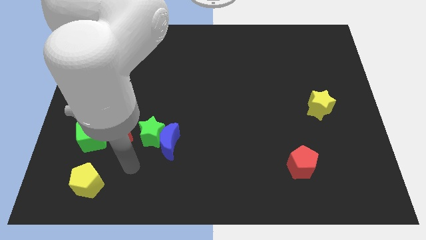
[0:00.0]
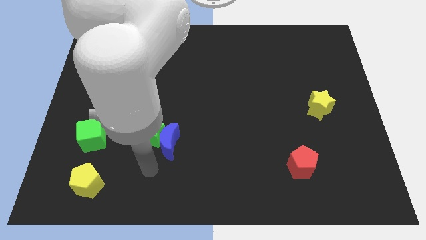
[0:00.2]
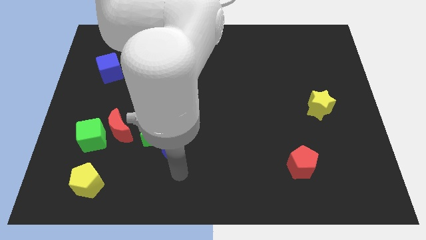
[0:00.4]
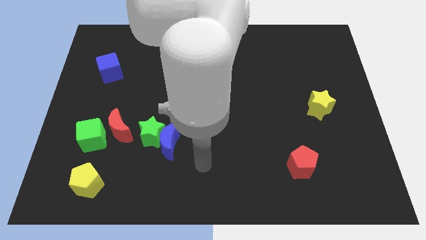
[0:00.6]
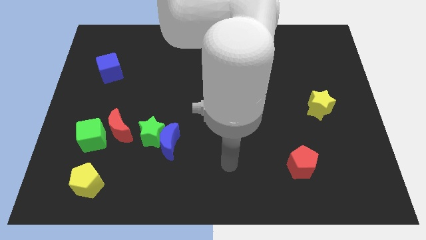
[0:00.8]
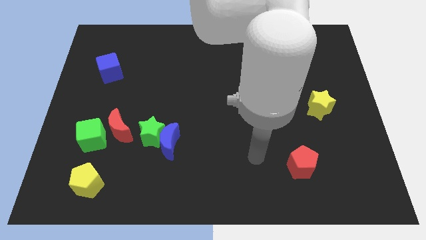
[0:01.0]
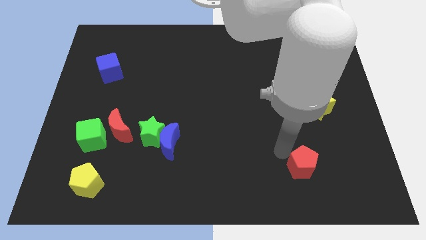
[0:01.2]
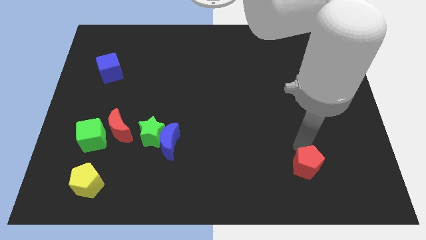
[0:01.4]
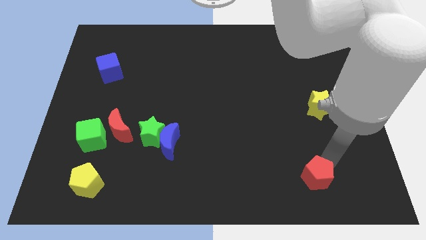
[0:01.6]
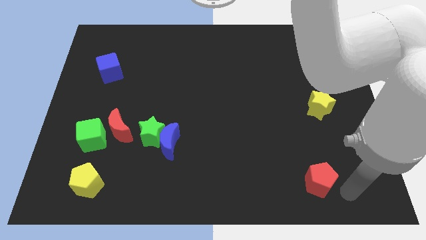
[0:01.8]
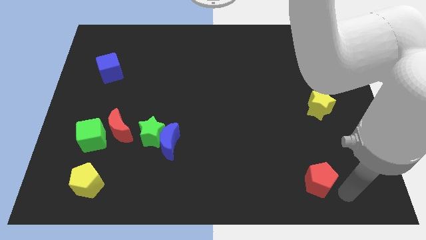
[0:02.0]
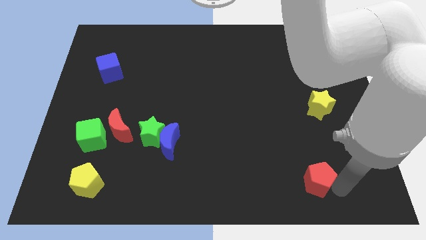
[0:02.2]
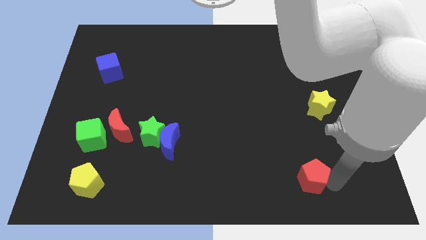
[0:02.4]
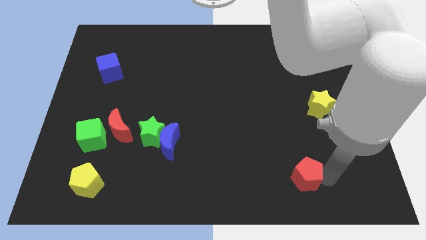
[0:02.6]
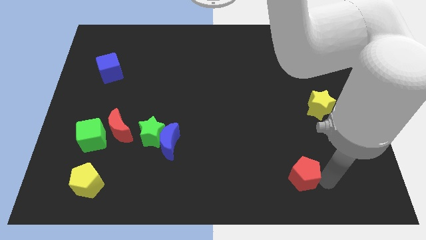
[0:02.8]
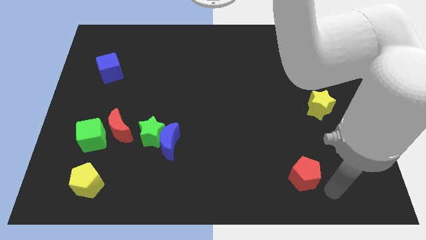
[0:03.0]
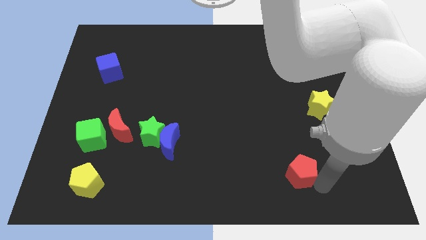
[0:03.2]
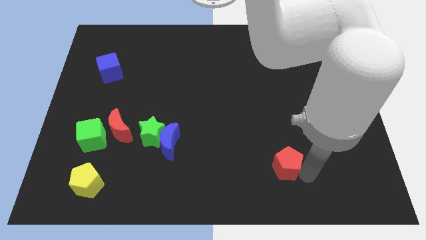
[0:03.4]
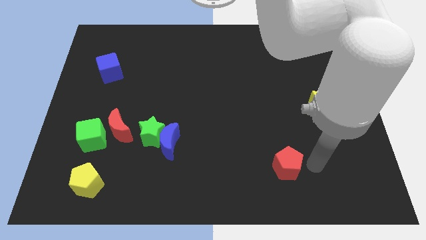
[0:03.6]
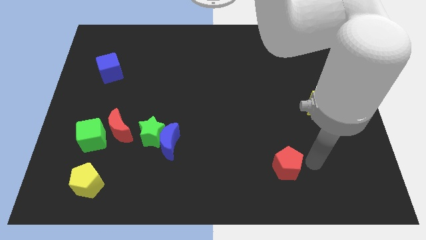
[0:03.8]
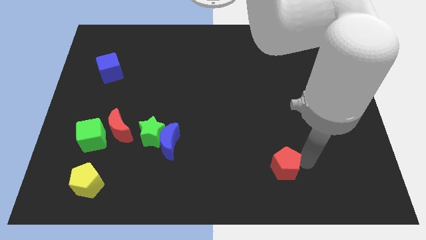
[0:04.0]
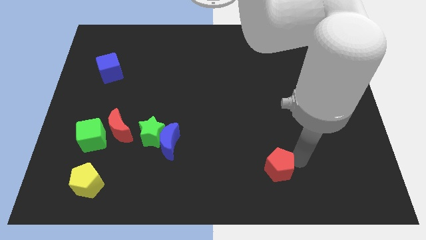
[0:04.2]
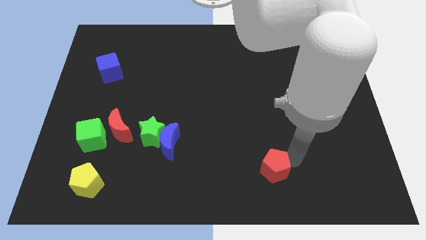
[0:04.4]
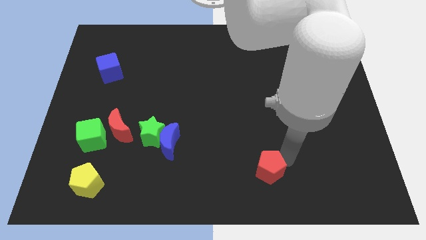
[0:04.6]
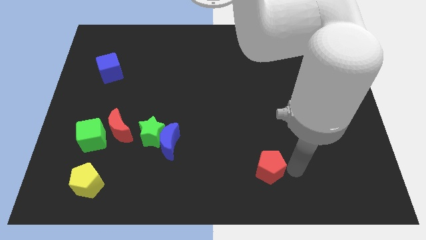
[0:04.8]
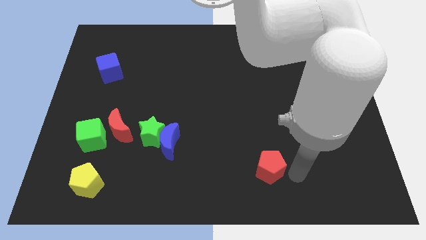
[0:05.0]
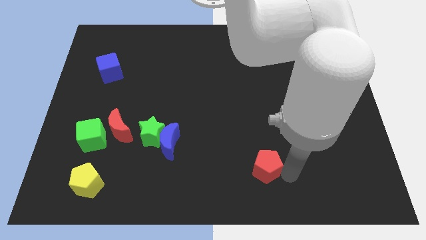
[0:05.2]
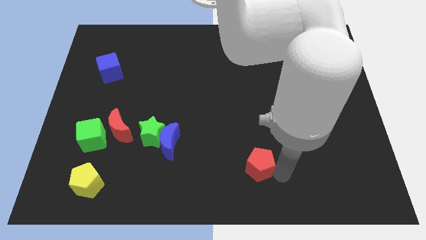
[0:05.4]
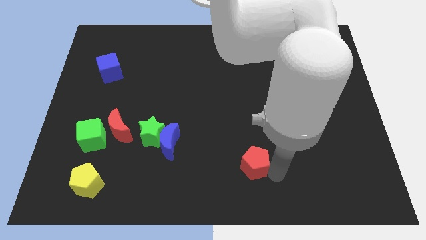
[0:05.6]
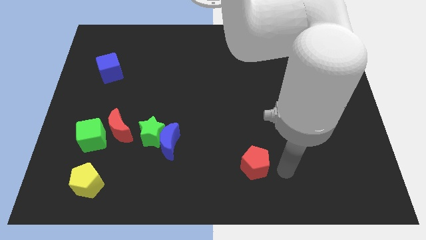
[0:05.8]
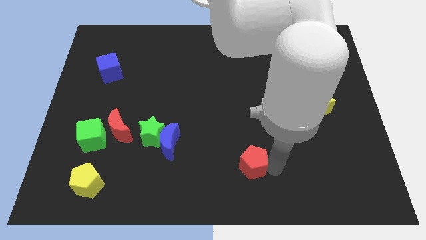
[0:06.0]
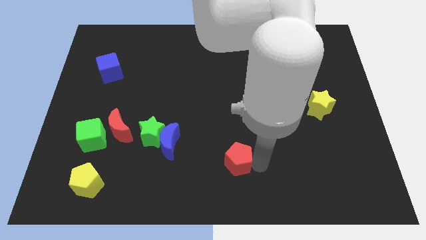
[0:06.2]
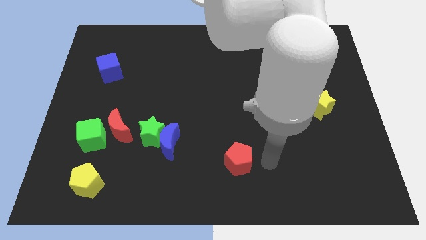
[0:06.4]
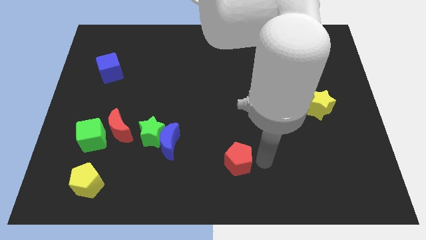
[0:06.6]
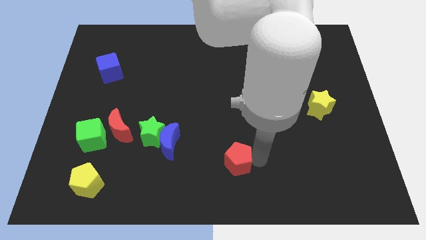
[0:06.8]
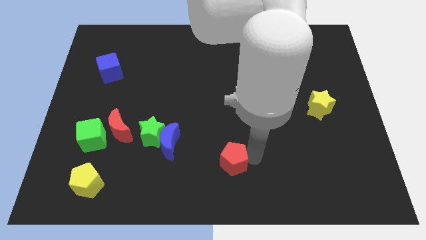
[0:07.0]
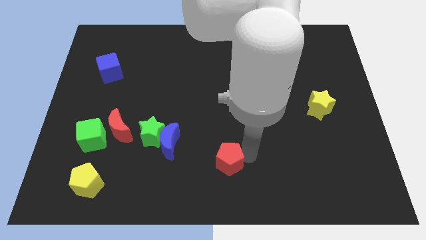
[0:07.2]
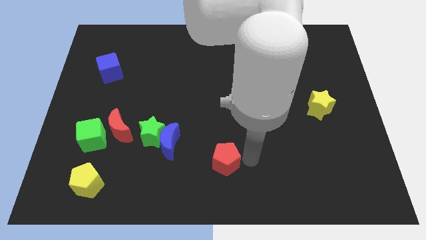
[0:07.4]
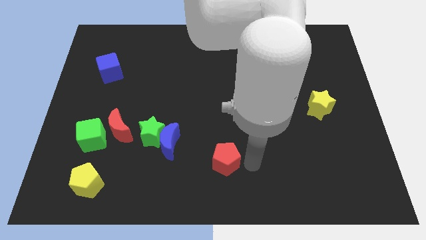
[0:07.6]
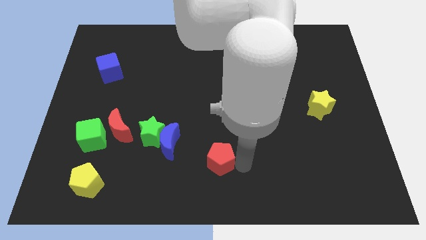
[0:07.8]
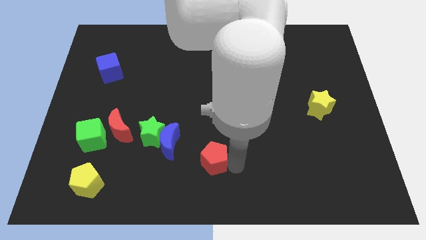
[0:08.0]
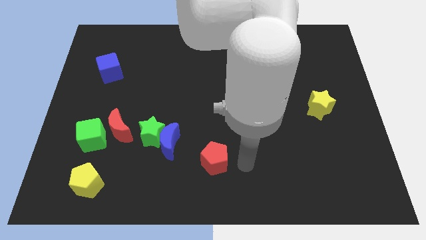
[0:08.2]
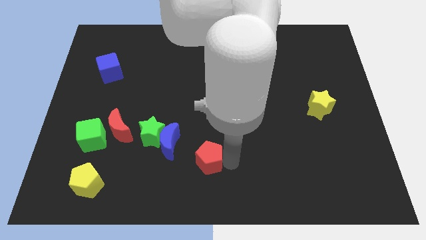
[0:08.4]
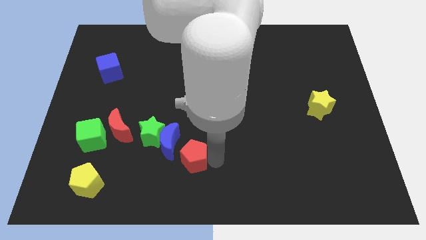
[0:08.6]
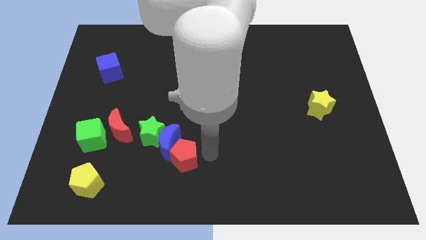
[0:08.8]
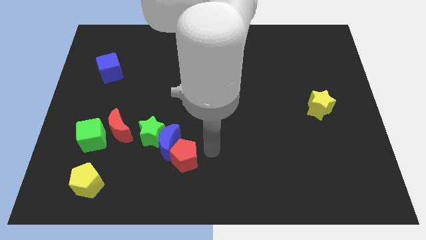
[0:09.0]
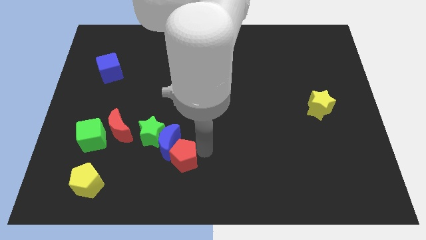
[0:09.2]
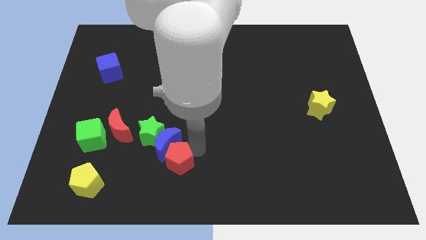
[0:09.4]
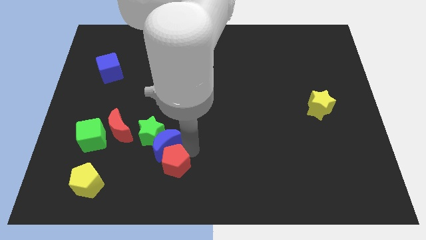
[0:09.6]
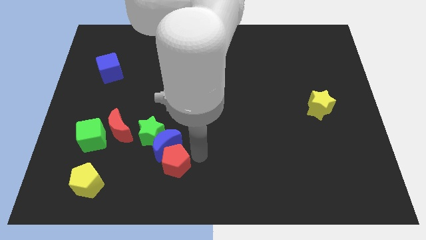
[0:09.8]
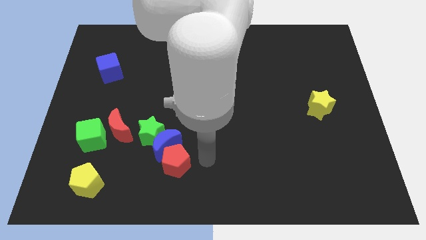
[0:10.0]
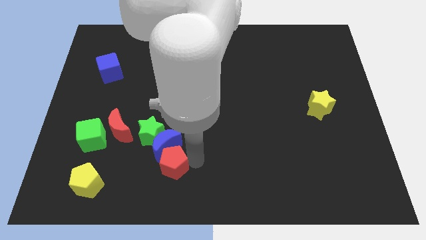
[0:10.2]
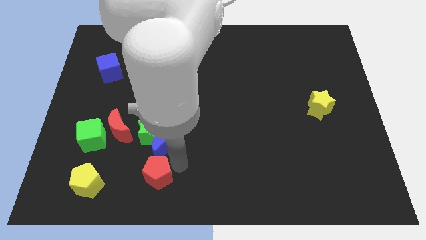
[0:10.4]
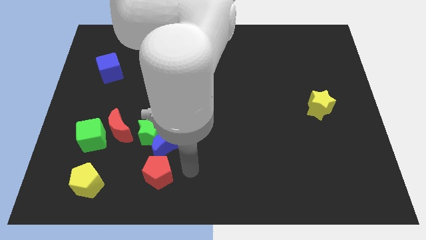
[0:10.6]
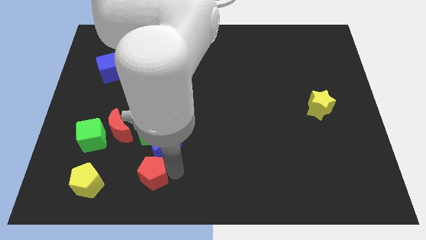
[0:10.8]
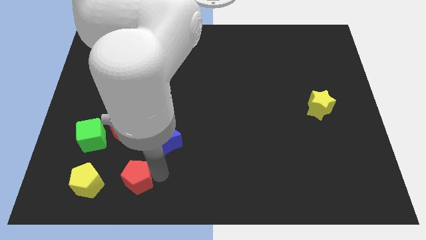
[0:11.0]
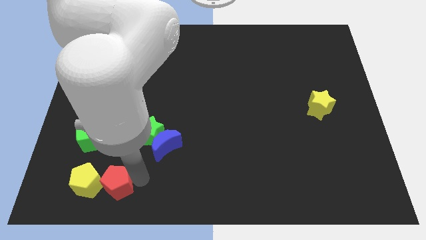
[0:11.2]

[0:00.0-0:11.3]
slide the red pentagon to the yellow pentagon
